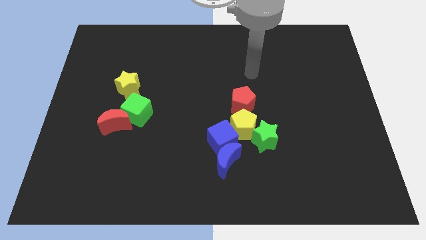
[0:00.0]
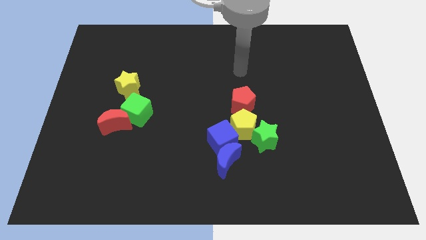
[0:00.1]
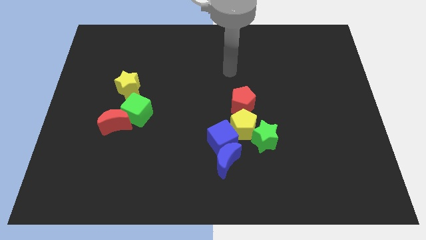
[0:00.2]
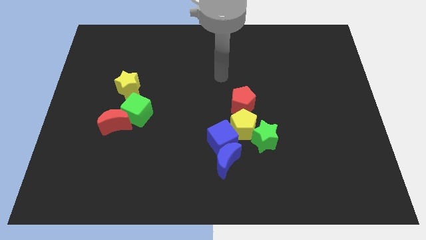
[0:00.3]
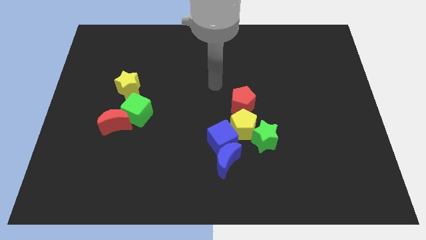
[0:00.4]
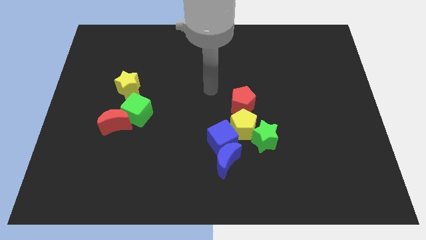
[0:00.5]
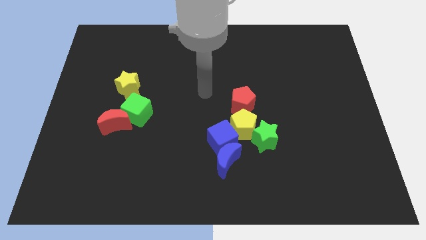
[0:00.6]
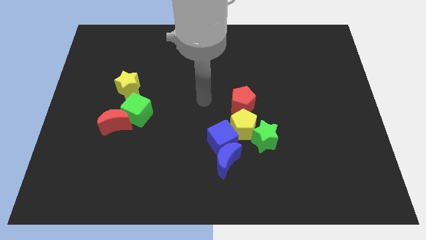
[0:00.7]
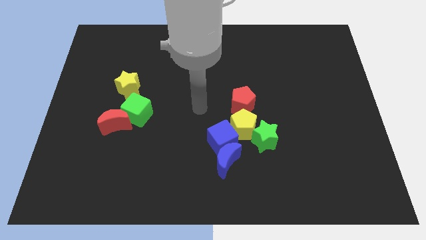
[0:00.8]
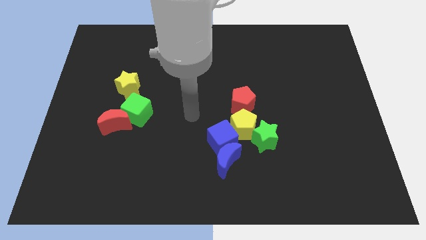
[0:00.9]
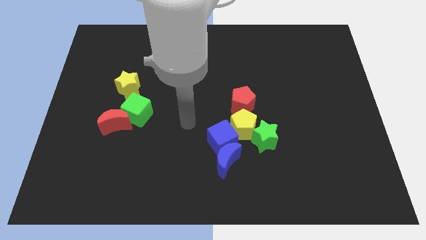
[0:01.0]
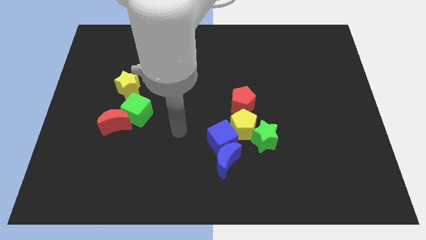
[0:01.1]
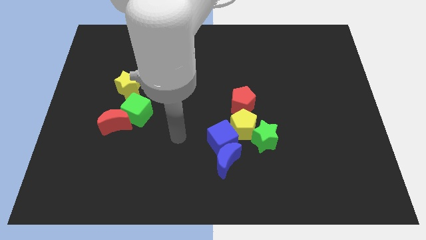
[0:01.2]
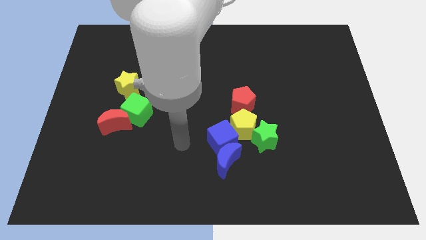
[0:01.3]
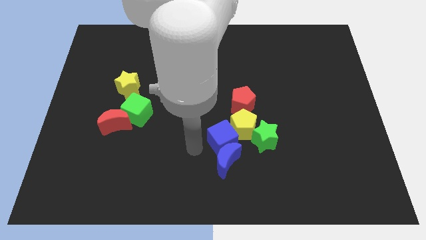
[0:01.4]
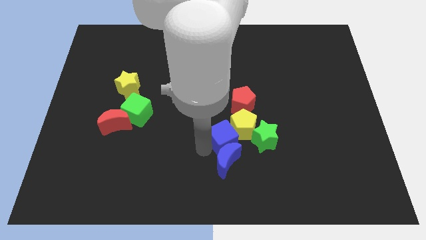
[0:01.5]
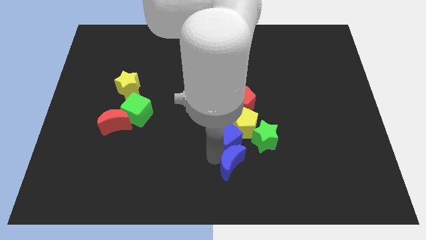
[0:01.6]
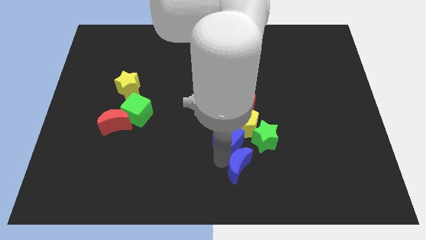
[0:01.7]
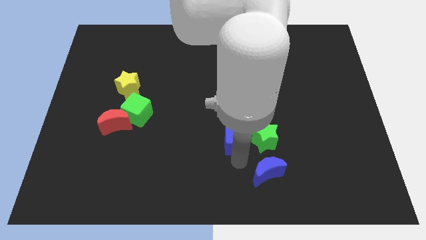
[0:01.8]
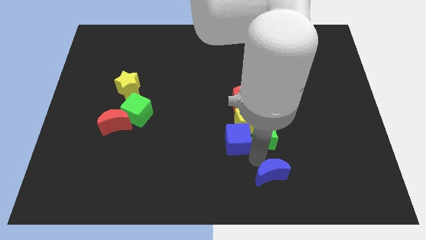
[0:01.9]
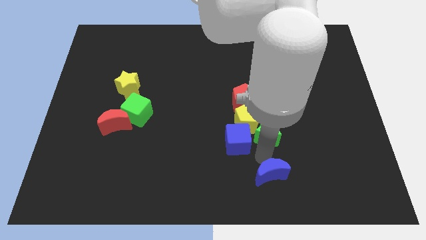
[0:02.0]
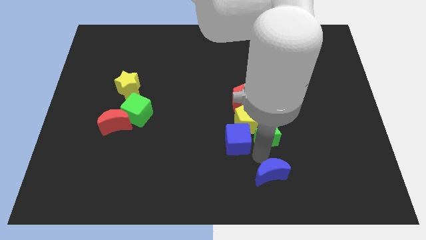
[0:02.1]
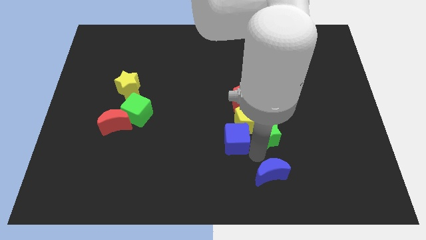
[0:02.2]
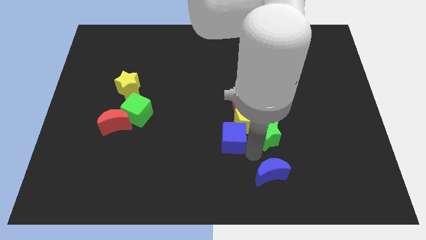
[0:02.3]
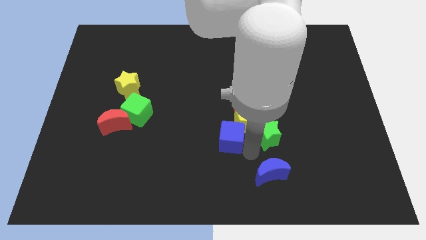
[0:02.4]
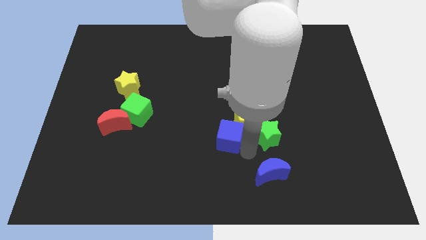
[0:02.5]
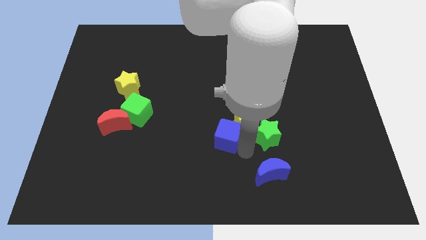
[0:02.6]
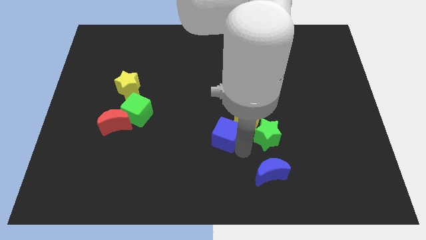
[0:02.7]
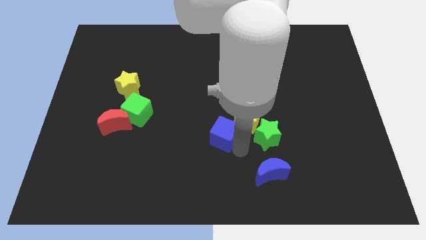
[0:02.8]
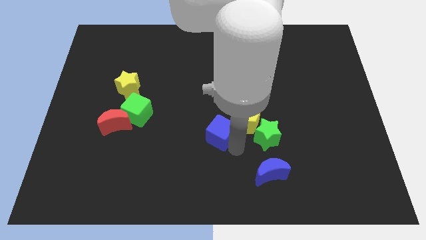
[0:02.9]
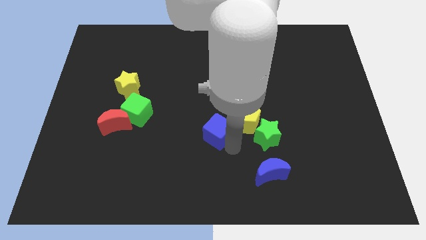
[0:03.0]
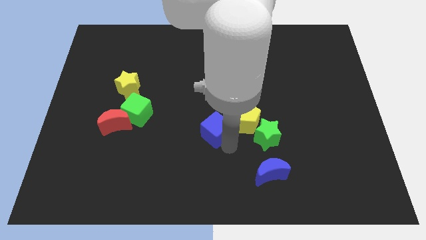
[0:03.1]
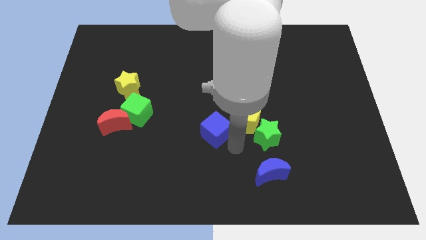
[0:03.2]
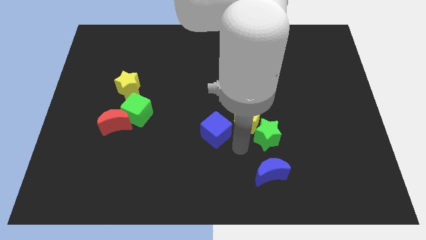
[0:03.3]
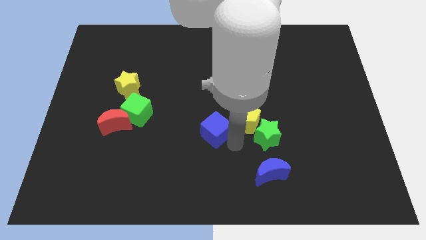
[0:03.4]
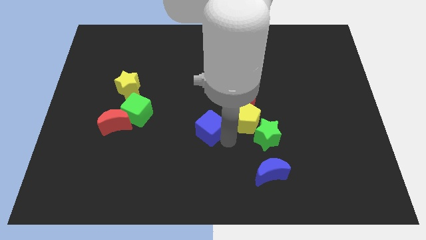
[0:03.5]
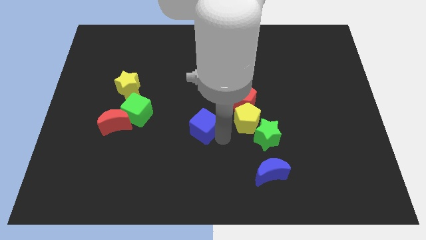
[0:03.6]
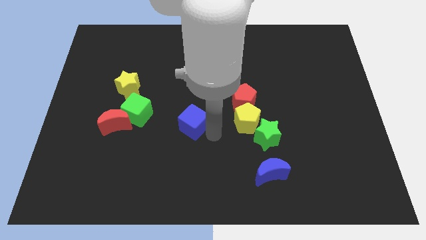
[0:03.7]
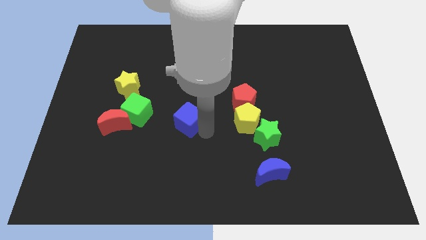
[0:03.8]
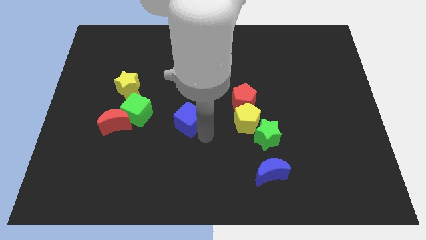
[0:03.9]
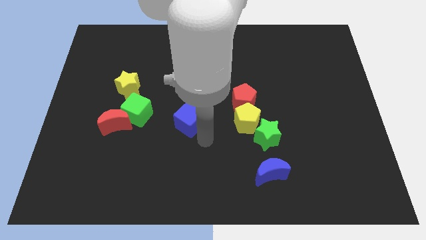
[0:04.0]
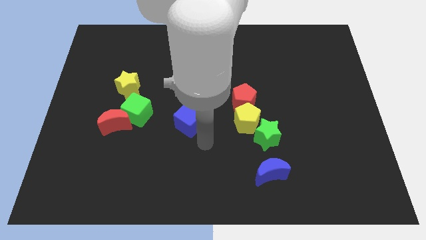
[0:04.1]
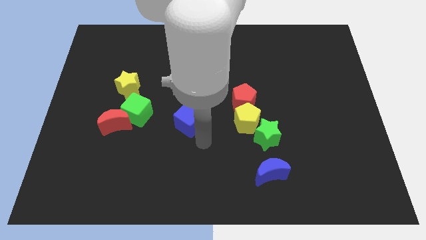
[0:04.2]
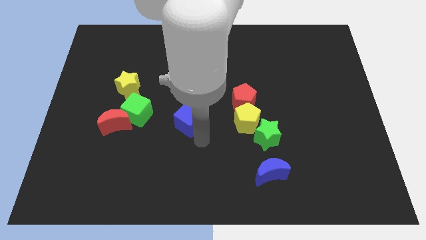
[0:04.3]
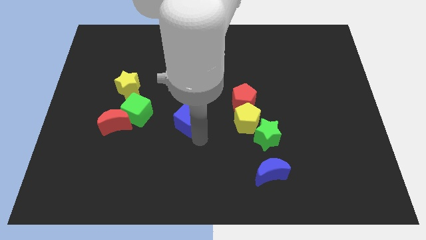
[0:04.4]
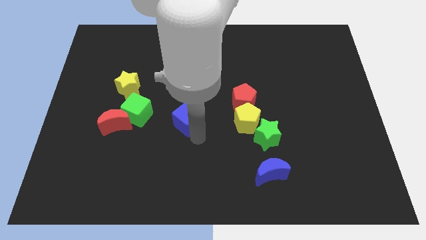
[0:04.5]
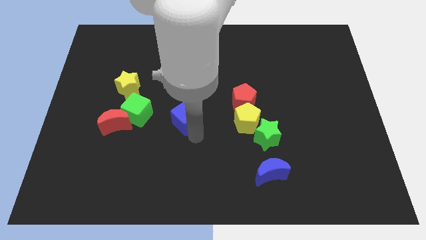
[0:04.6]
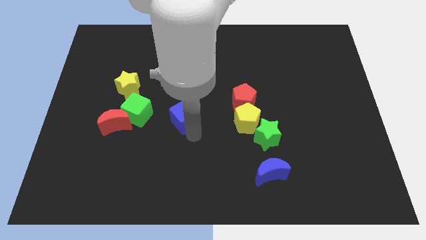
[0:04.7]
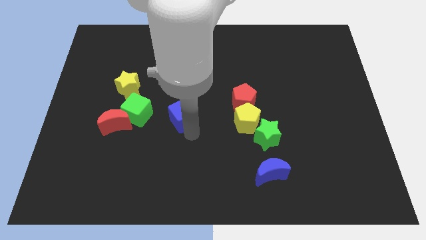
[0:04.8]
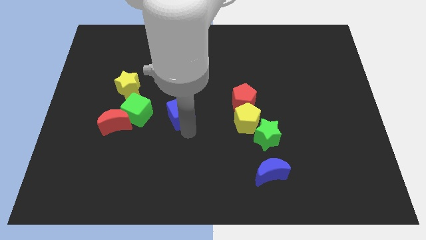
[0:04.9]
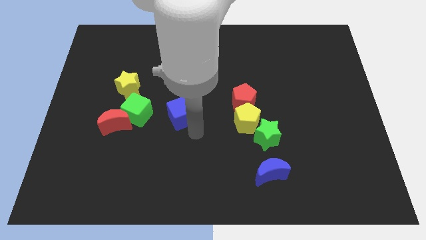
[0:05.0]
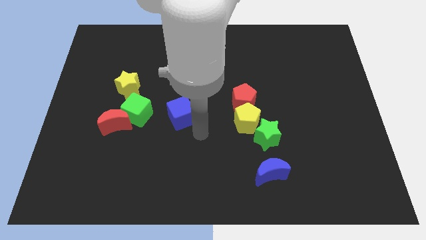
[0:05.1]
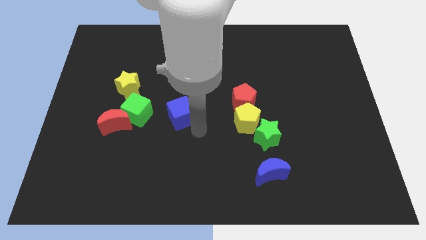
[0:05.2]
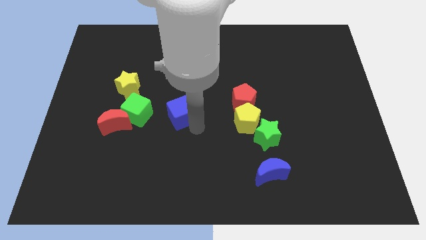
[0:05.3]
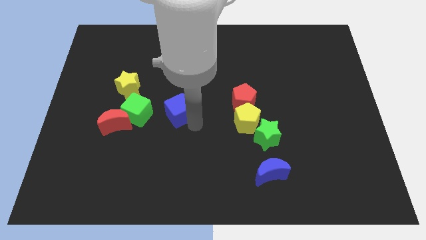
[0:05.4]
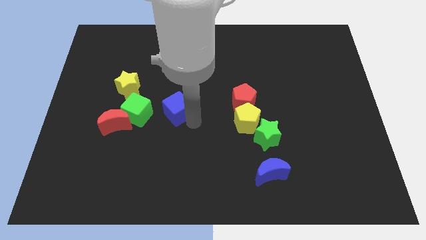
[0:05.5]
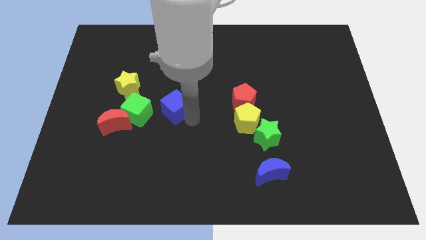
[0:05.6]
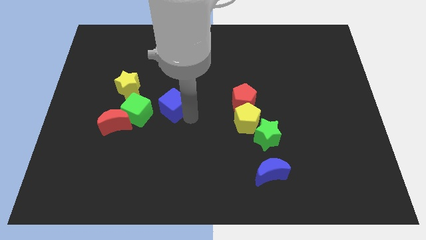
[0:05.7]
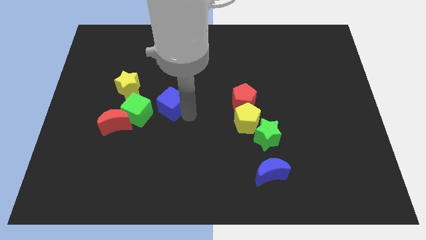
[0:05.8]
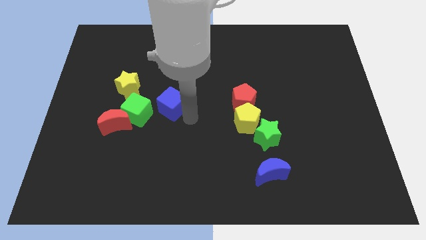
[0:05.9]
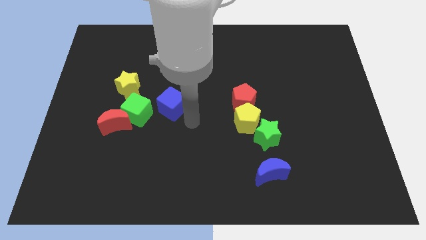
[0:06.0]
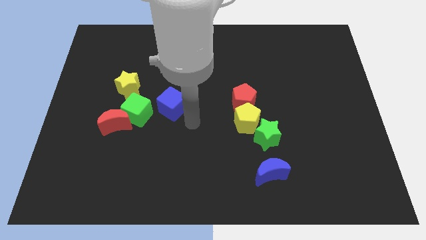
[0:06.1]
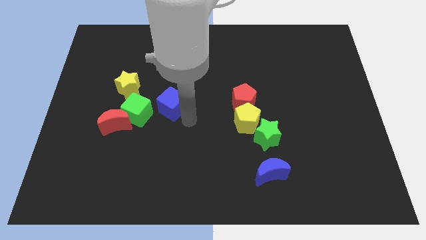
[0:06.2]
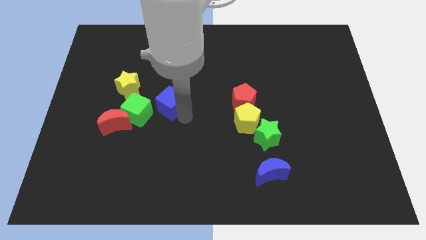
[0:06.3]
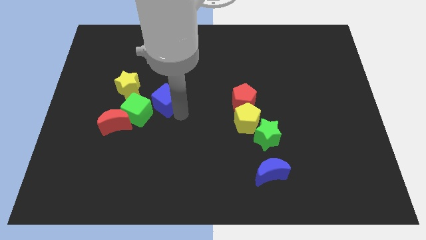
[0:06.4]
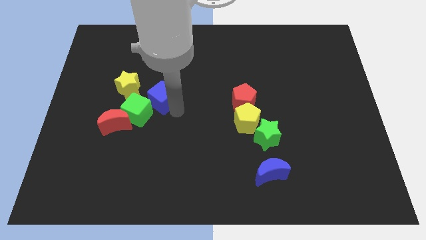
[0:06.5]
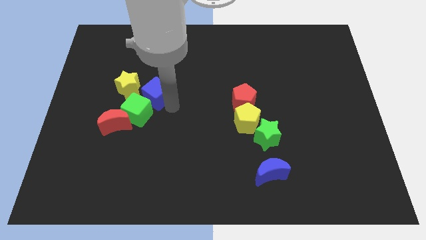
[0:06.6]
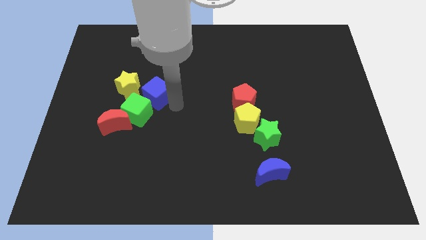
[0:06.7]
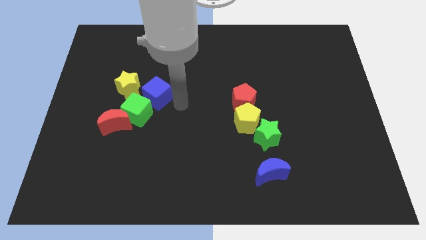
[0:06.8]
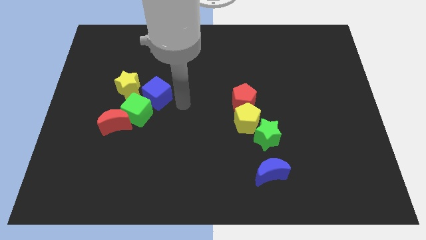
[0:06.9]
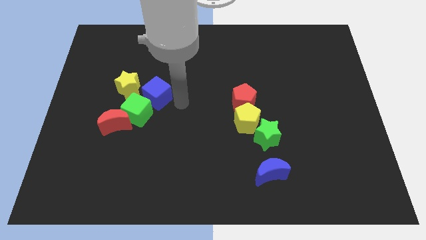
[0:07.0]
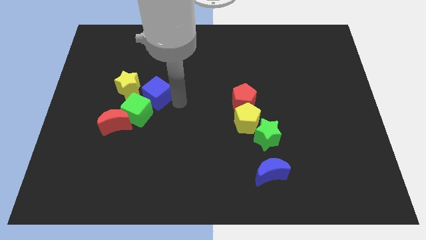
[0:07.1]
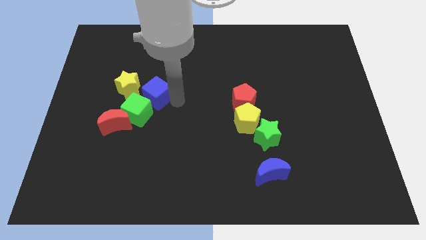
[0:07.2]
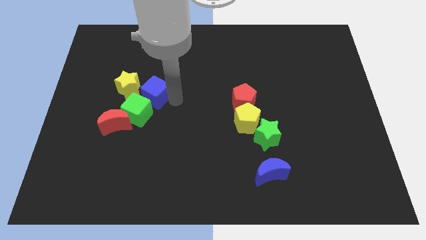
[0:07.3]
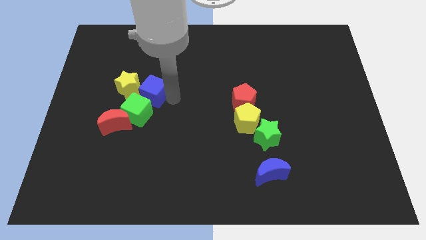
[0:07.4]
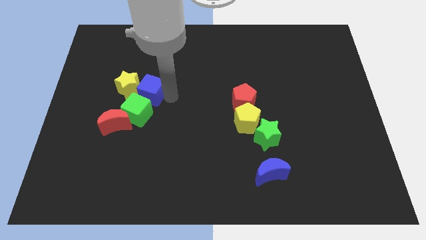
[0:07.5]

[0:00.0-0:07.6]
put the blue cube towards the yellow star
